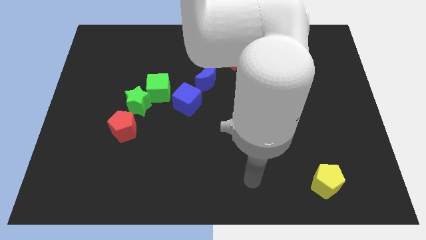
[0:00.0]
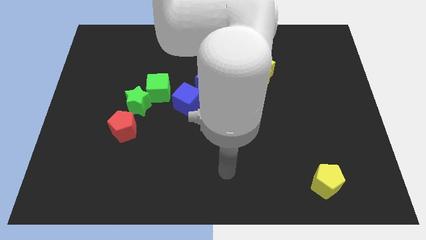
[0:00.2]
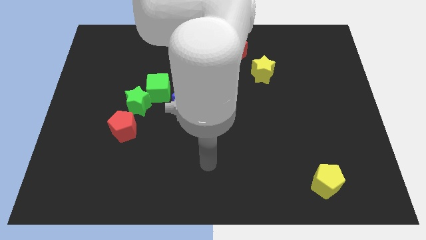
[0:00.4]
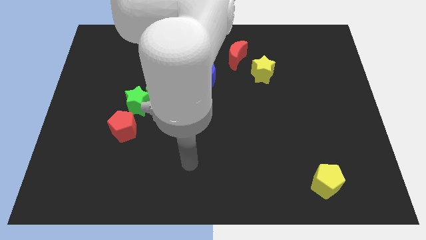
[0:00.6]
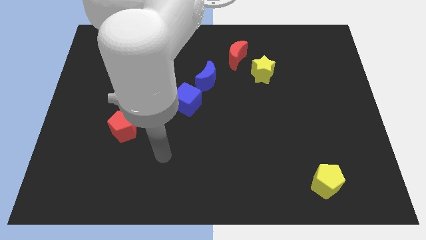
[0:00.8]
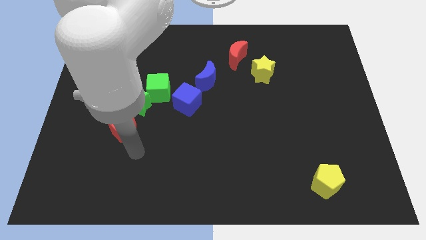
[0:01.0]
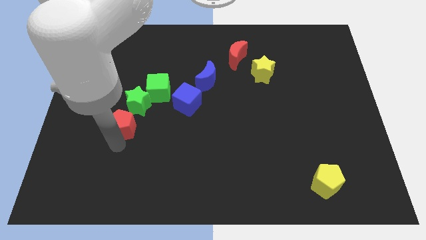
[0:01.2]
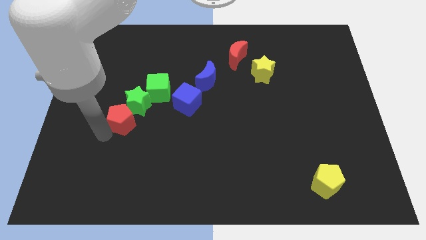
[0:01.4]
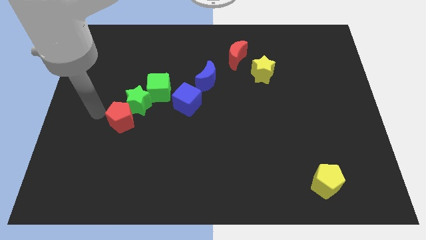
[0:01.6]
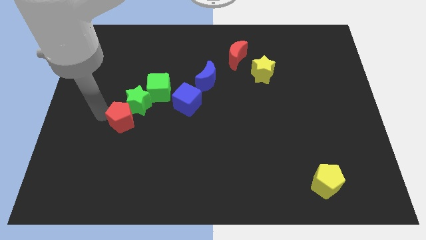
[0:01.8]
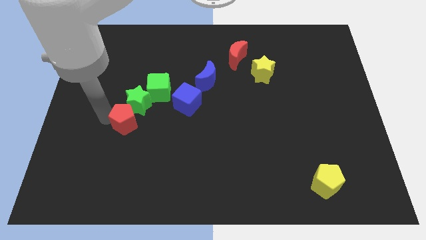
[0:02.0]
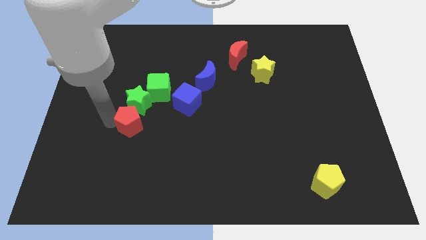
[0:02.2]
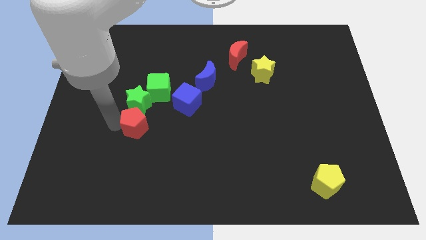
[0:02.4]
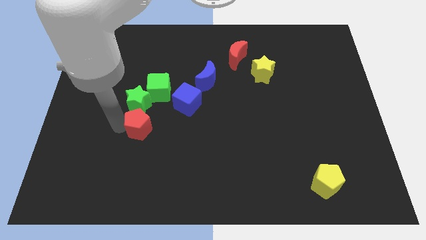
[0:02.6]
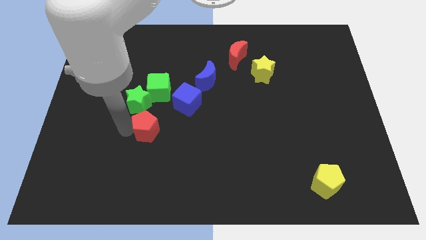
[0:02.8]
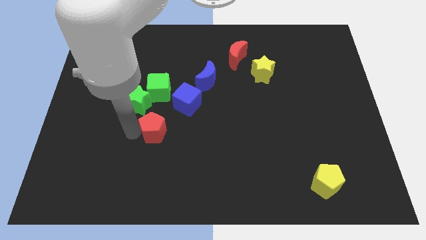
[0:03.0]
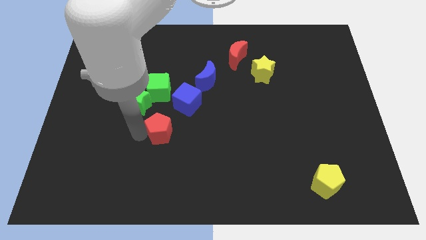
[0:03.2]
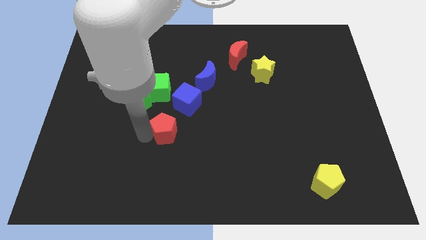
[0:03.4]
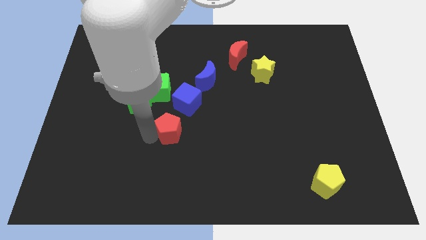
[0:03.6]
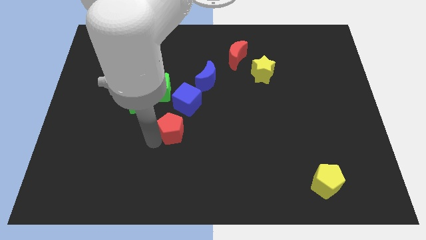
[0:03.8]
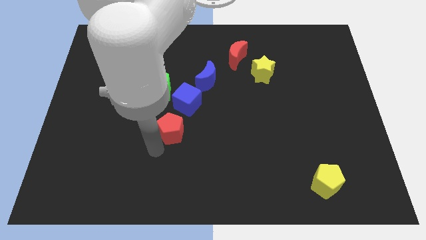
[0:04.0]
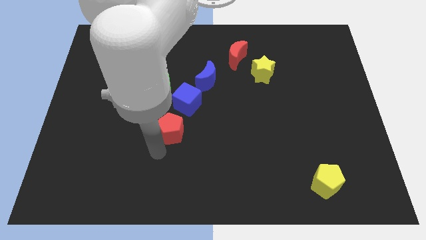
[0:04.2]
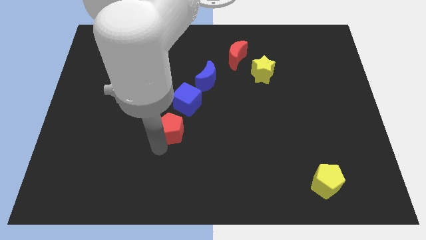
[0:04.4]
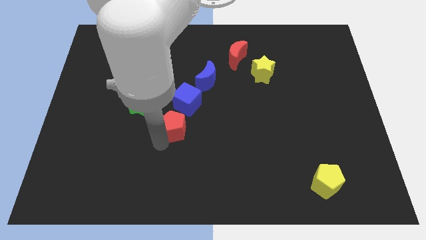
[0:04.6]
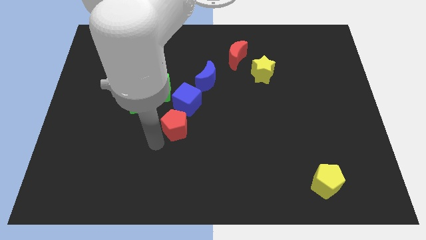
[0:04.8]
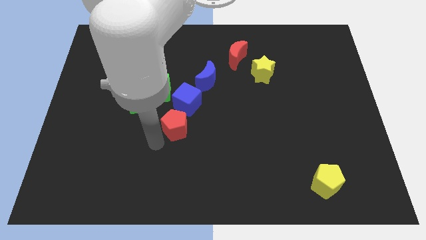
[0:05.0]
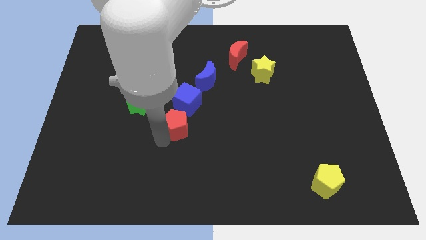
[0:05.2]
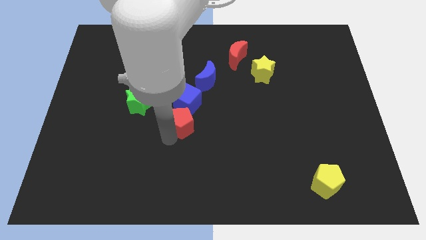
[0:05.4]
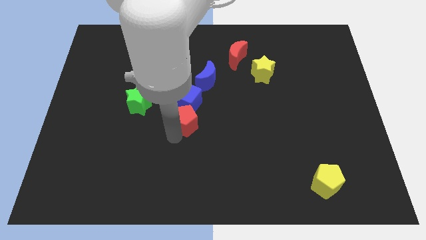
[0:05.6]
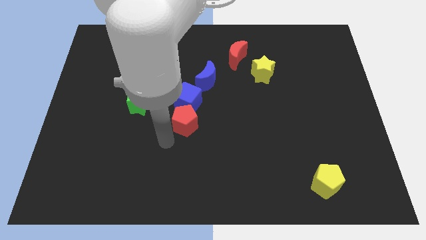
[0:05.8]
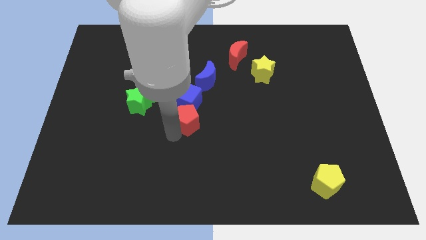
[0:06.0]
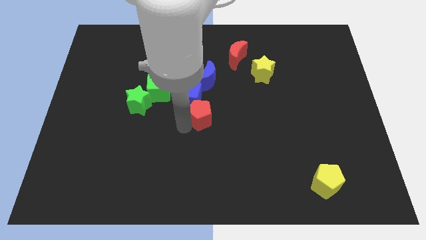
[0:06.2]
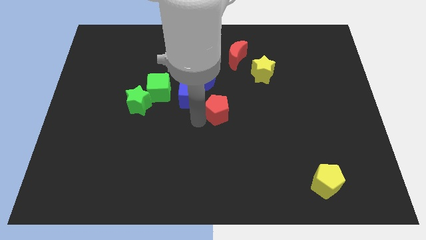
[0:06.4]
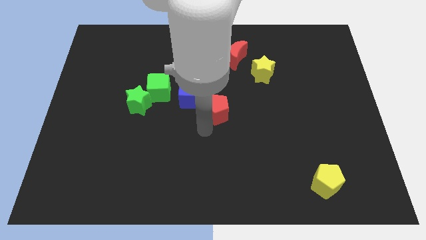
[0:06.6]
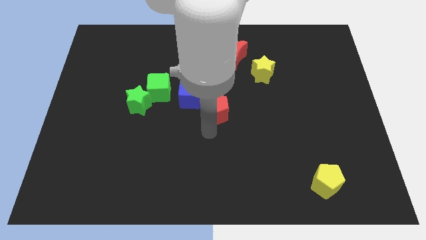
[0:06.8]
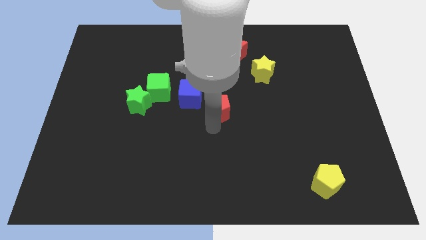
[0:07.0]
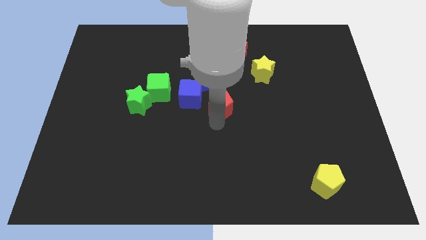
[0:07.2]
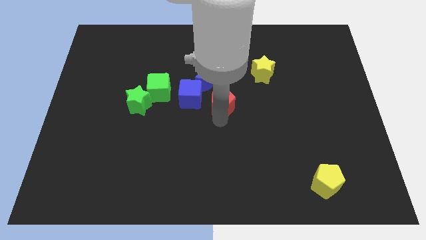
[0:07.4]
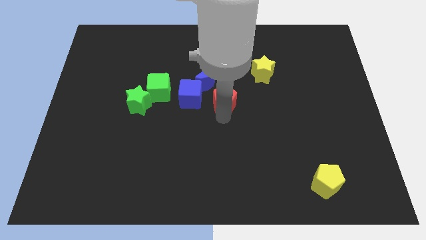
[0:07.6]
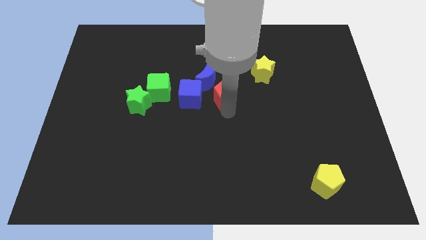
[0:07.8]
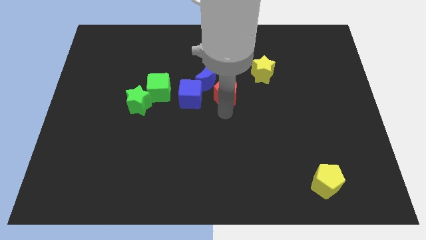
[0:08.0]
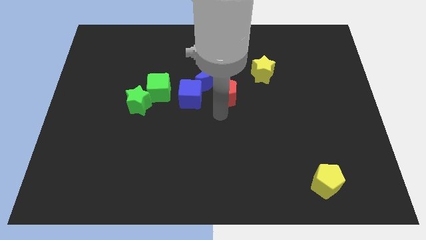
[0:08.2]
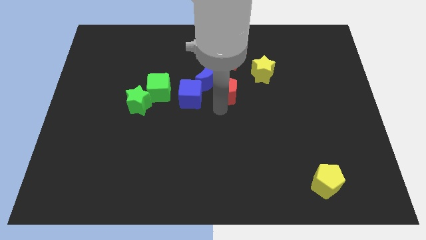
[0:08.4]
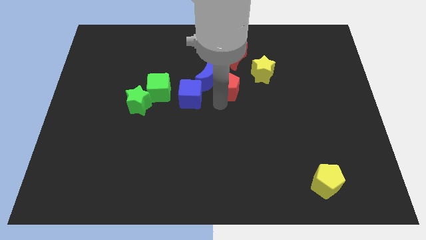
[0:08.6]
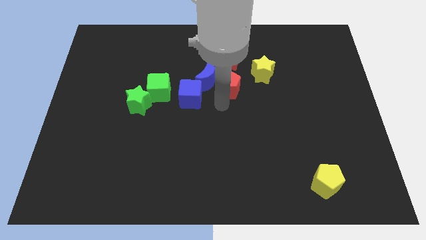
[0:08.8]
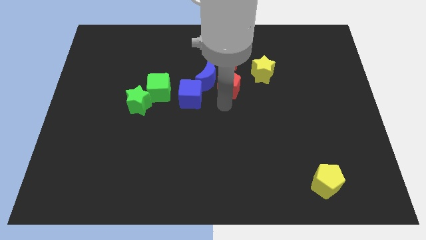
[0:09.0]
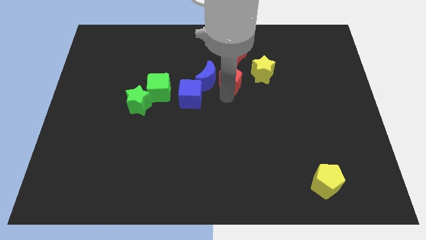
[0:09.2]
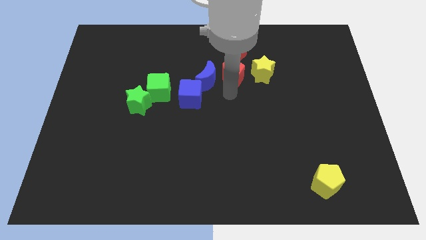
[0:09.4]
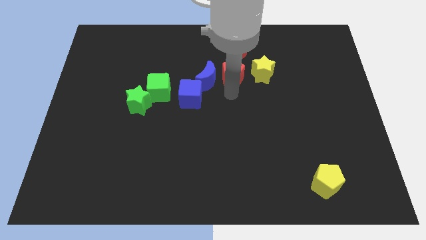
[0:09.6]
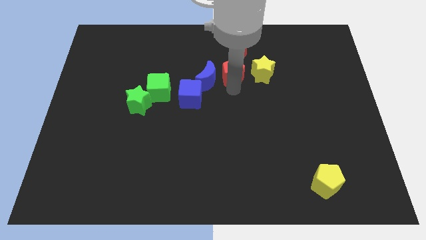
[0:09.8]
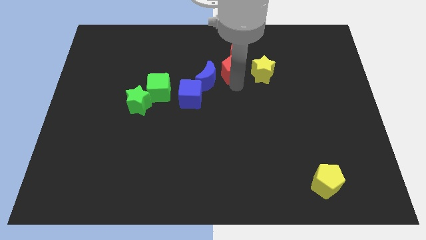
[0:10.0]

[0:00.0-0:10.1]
push the red pentagon towards the red moon

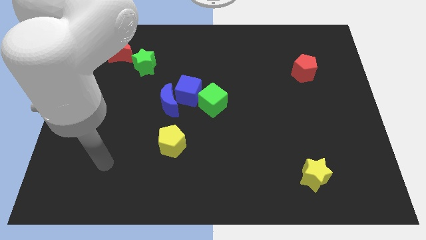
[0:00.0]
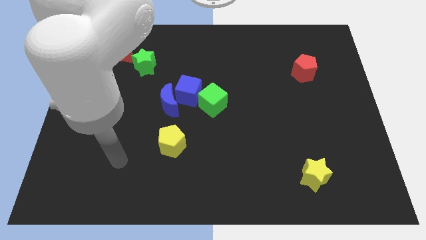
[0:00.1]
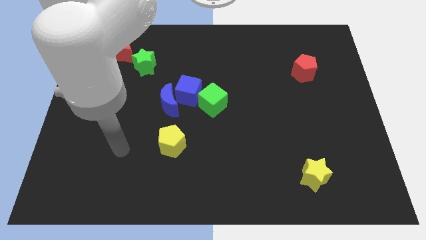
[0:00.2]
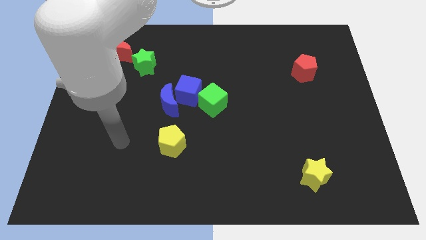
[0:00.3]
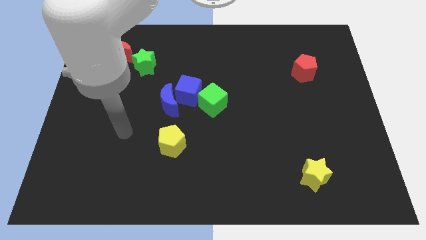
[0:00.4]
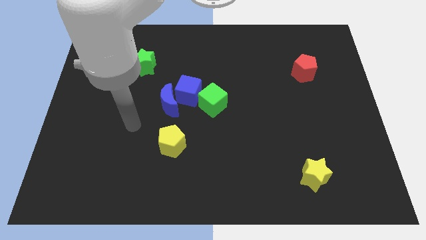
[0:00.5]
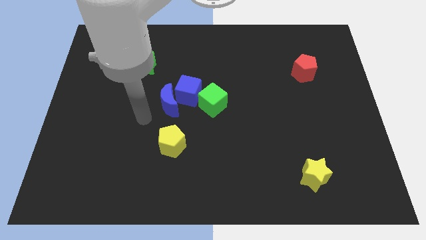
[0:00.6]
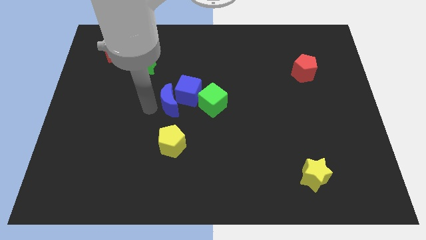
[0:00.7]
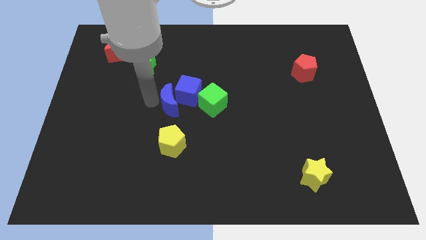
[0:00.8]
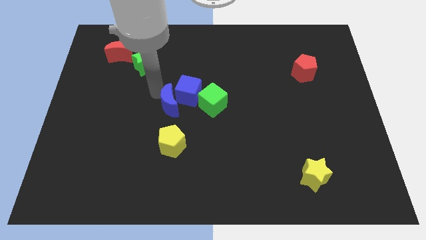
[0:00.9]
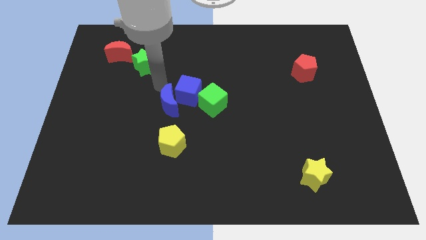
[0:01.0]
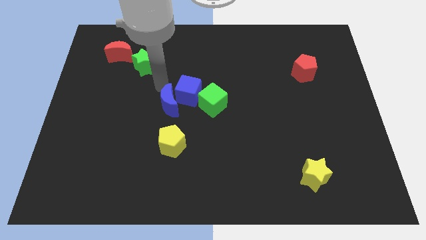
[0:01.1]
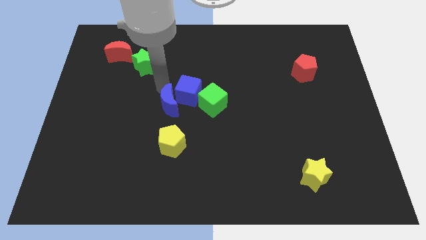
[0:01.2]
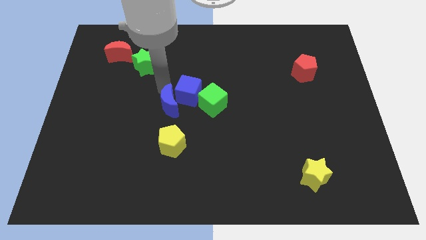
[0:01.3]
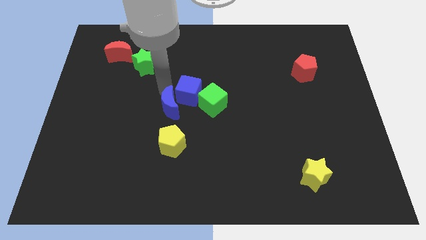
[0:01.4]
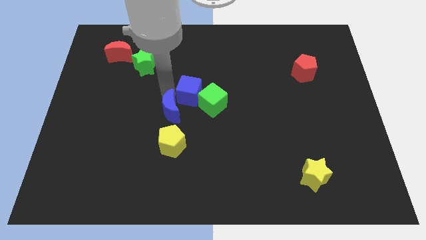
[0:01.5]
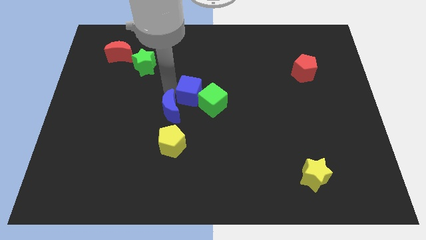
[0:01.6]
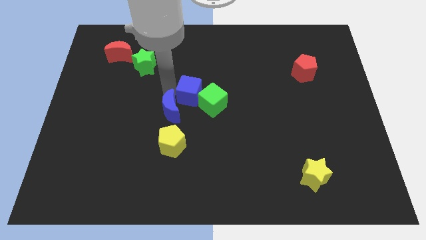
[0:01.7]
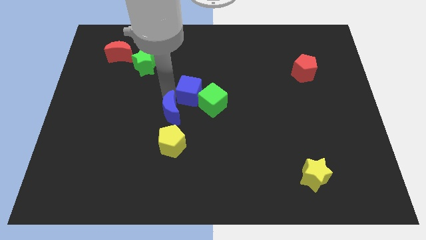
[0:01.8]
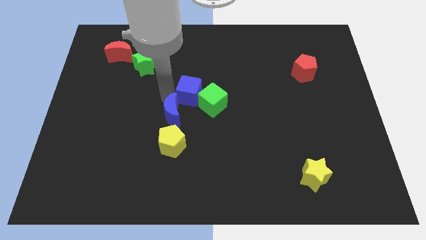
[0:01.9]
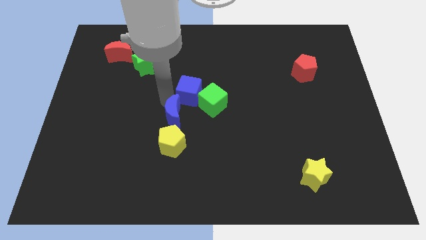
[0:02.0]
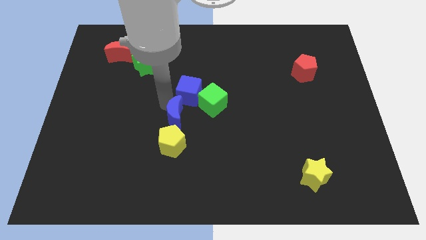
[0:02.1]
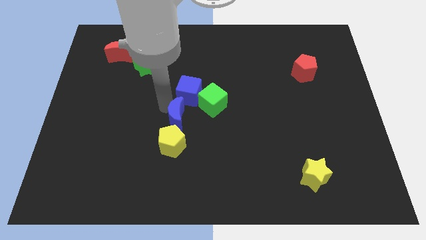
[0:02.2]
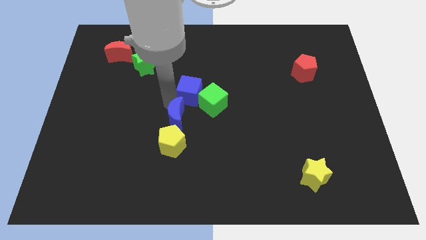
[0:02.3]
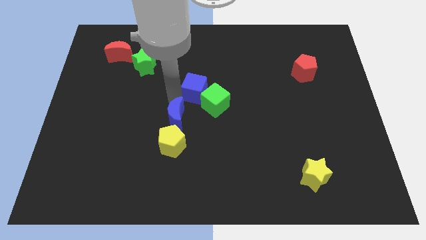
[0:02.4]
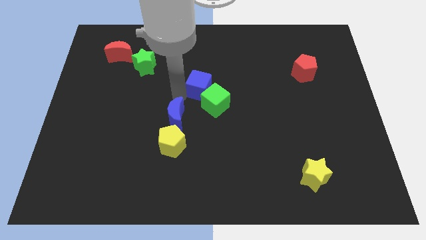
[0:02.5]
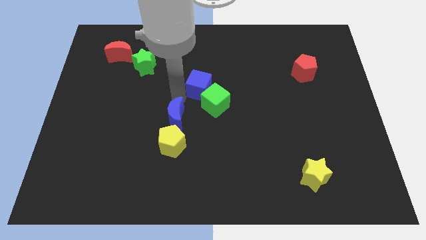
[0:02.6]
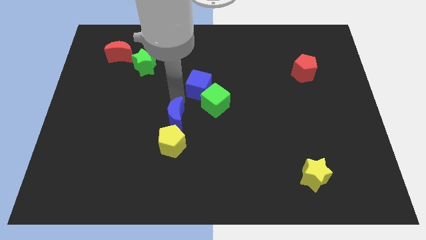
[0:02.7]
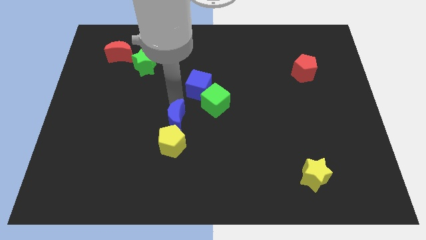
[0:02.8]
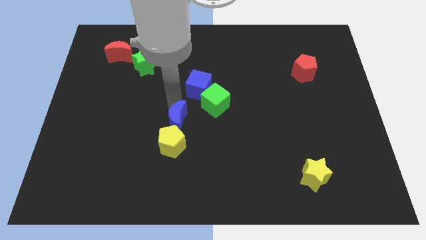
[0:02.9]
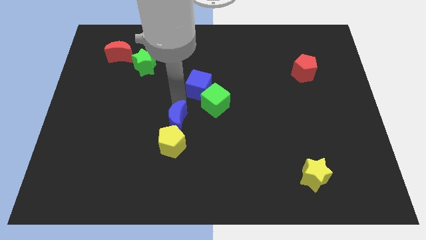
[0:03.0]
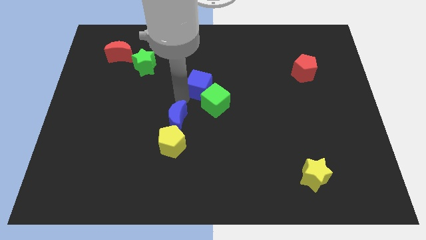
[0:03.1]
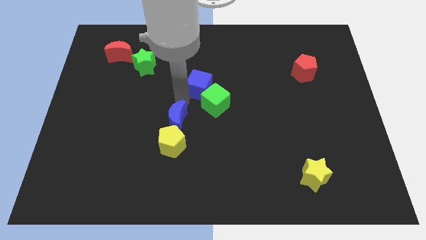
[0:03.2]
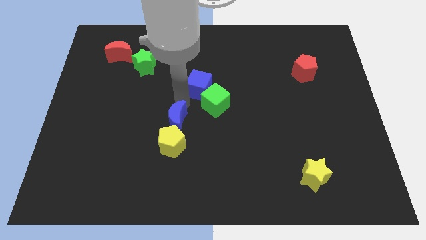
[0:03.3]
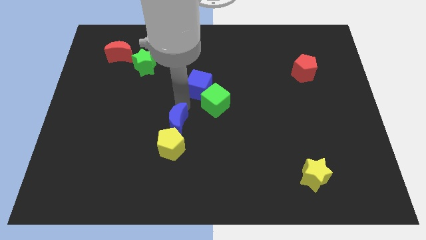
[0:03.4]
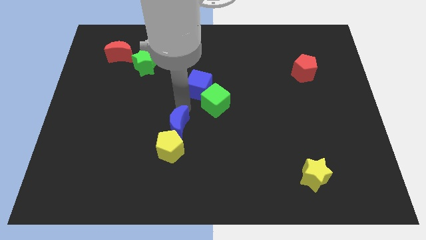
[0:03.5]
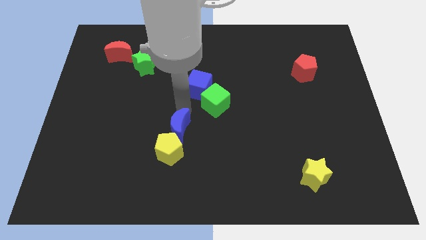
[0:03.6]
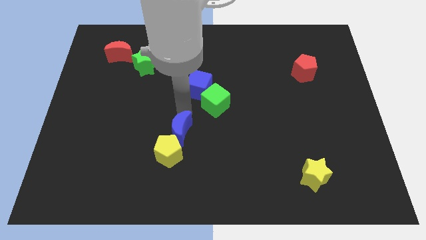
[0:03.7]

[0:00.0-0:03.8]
push the blue moon close to the yellow pentagon
